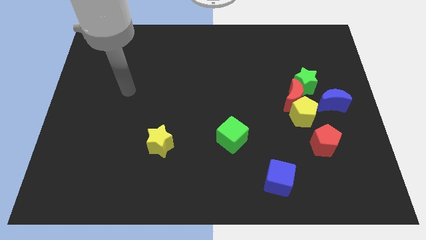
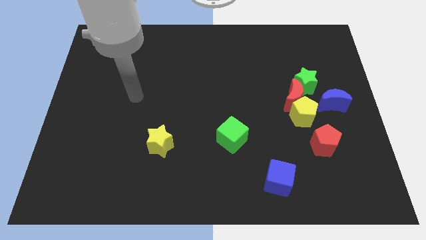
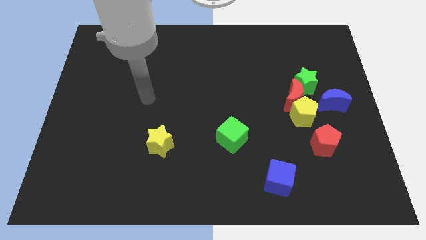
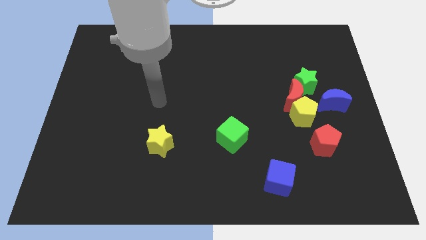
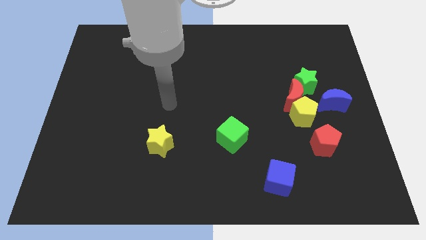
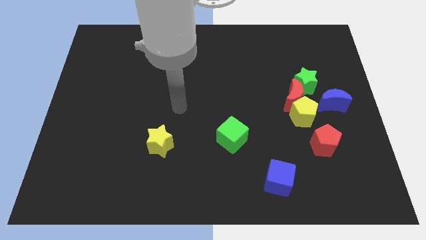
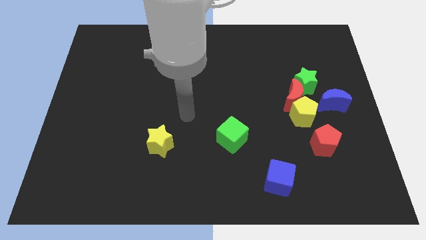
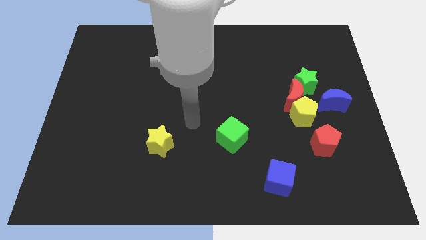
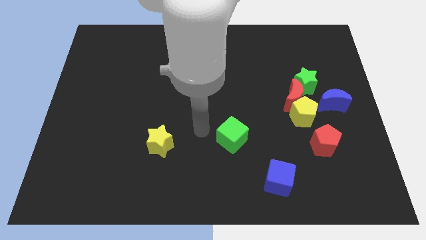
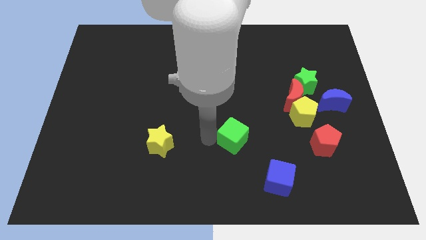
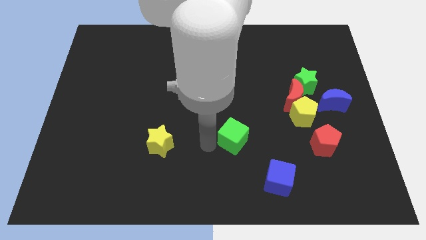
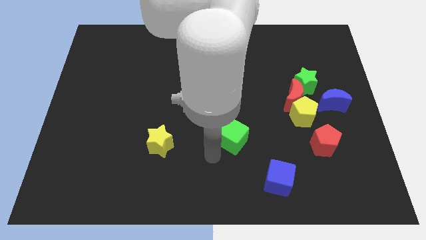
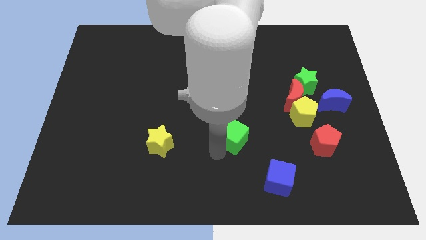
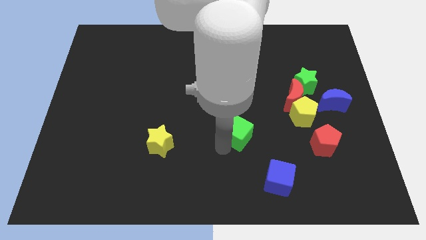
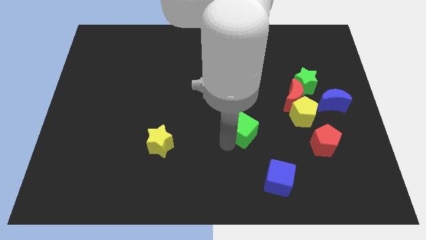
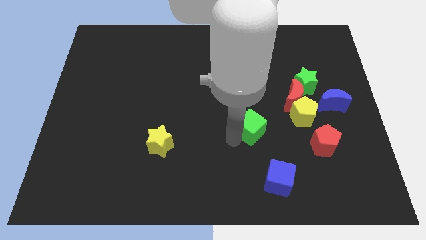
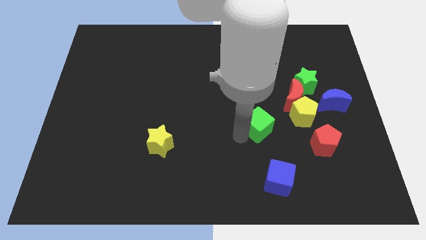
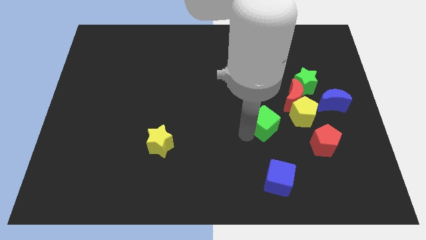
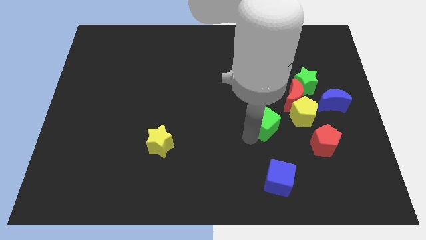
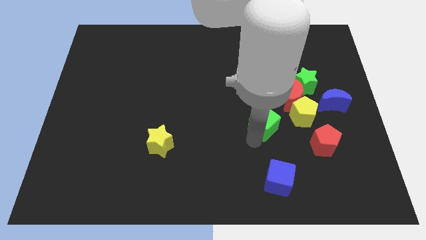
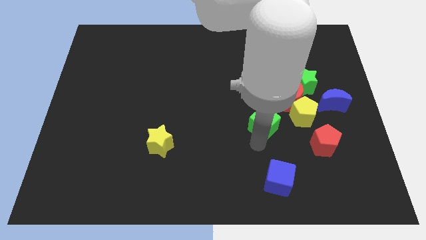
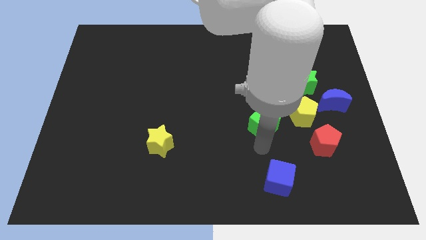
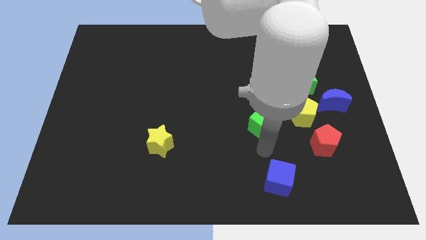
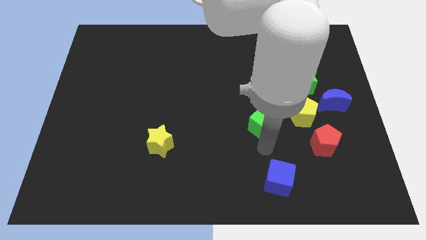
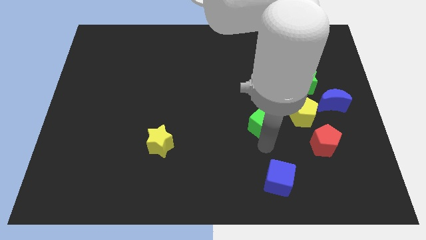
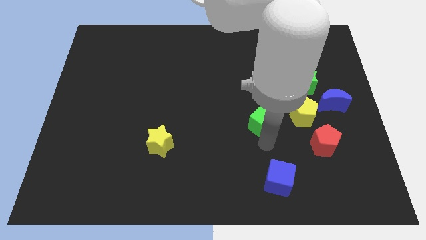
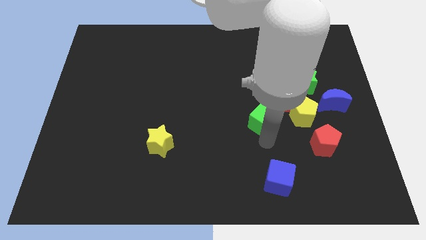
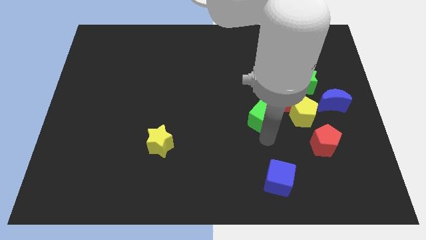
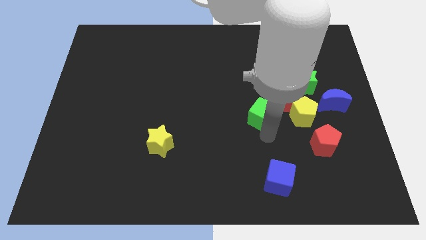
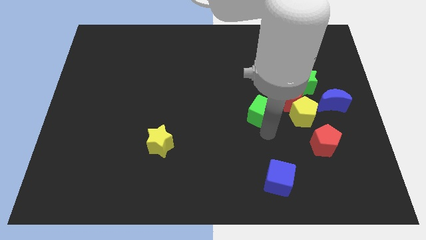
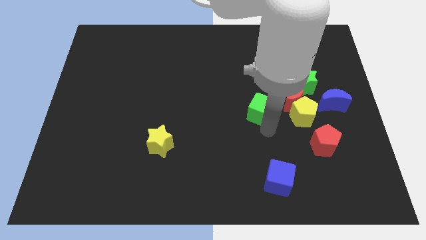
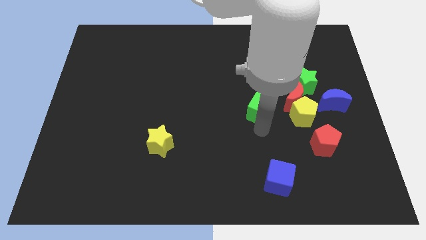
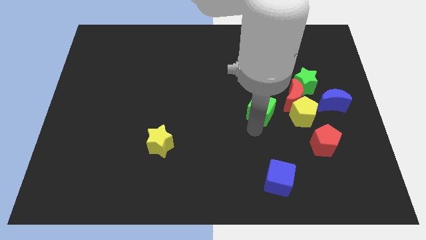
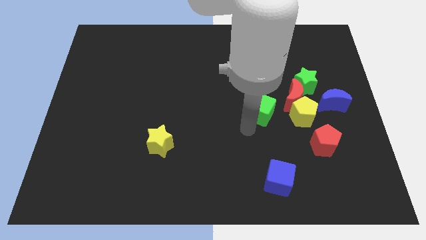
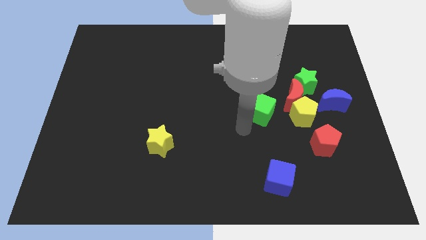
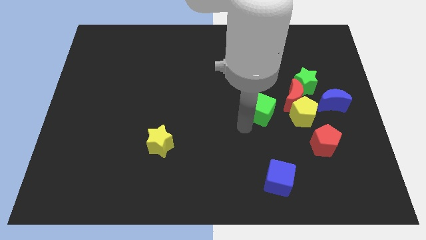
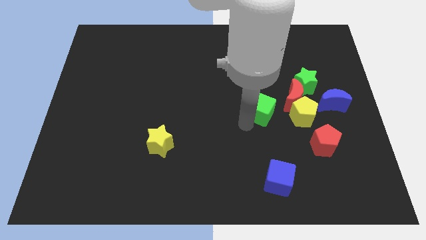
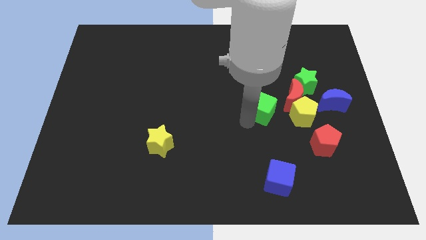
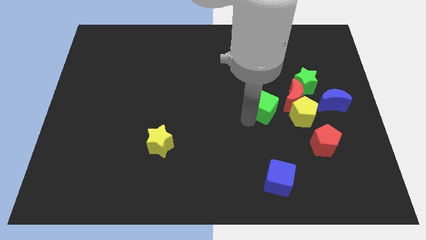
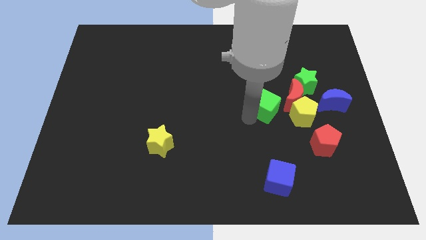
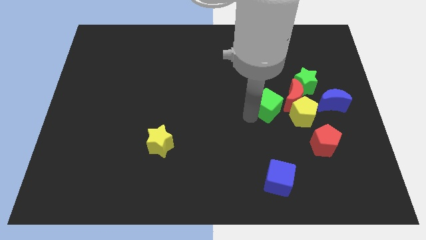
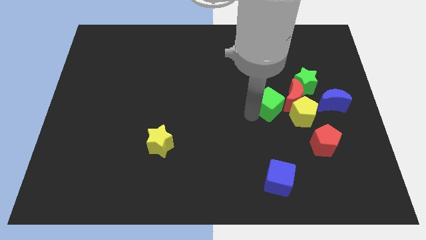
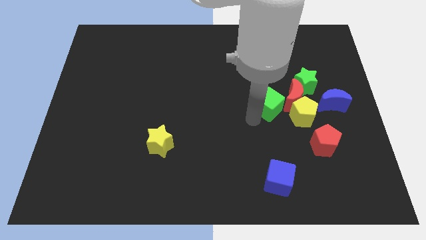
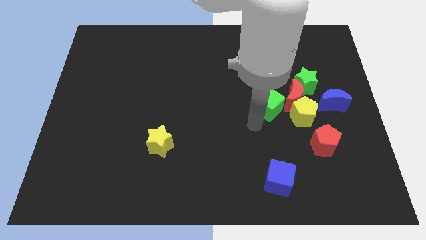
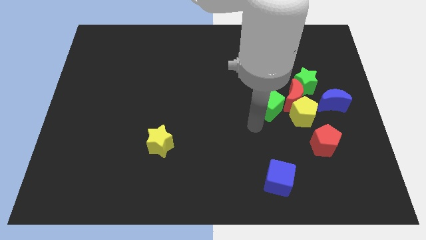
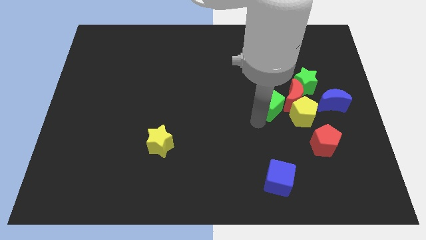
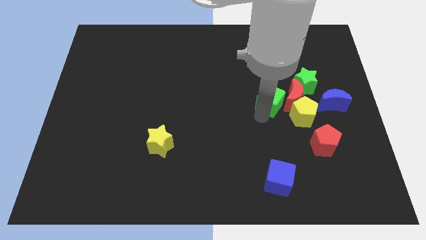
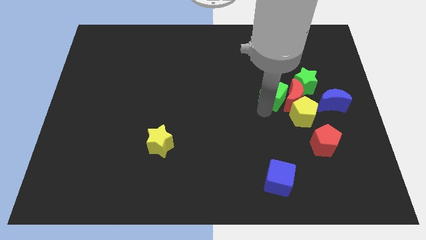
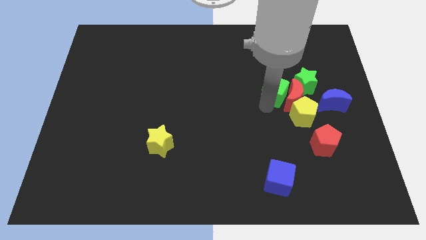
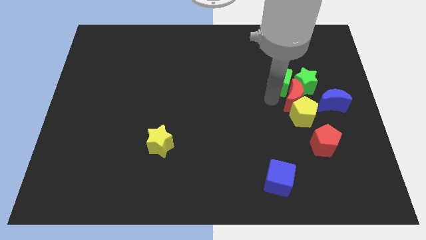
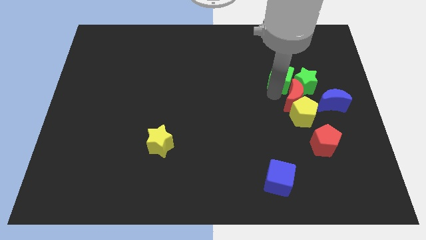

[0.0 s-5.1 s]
move the green cube up and to the right diagonally

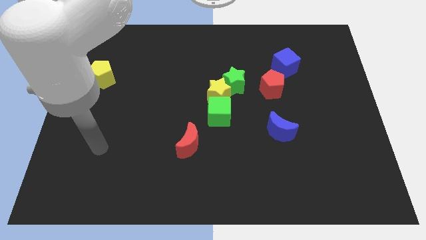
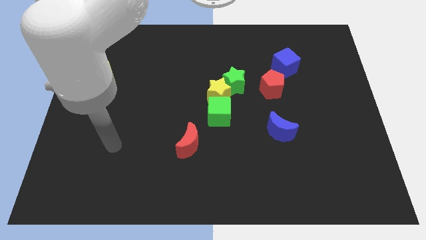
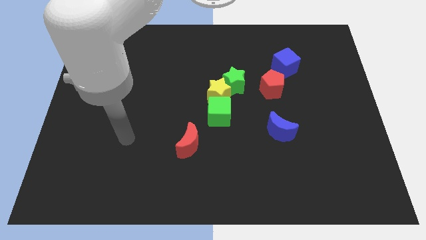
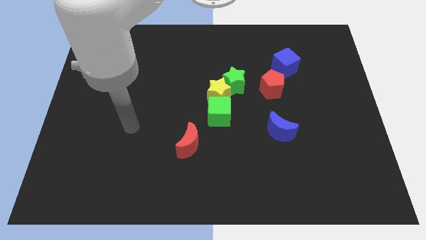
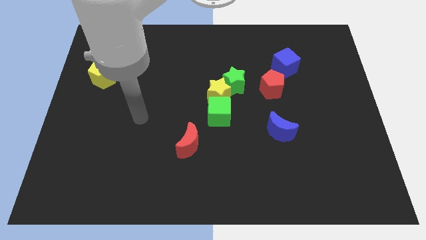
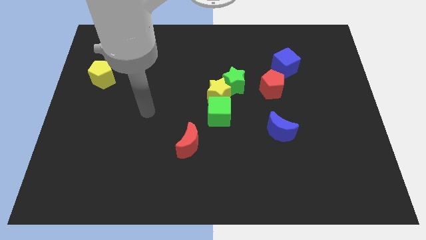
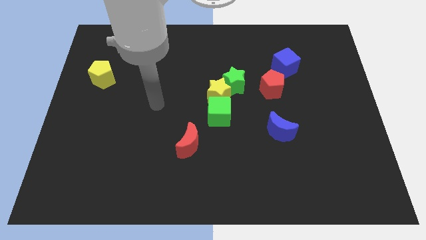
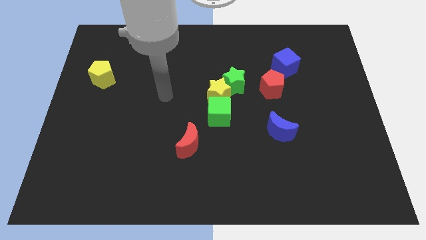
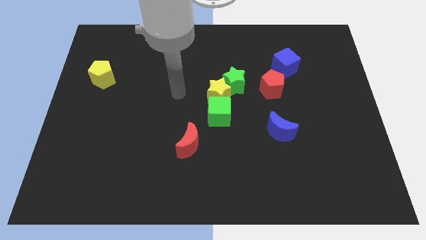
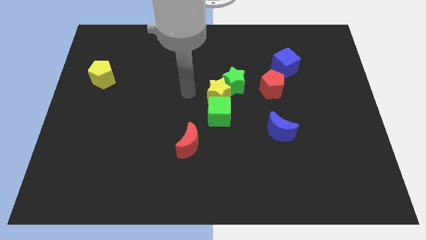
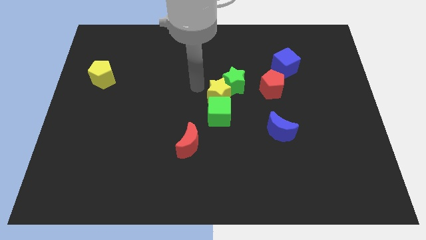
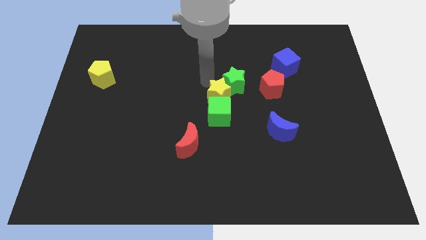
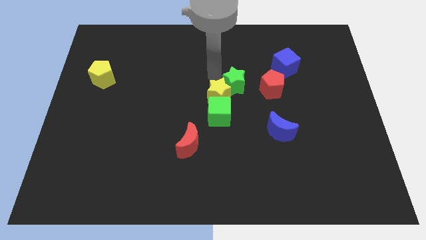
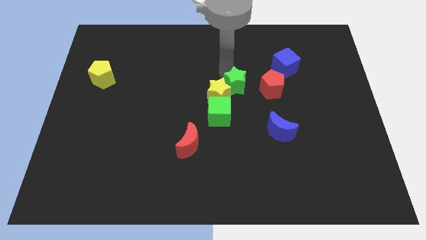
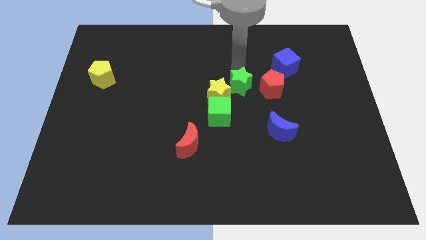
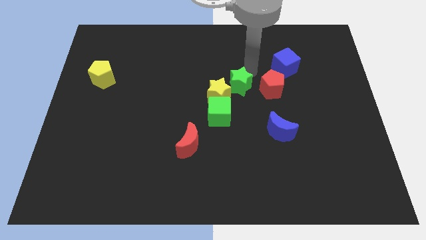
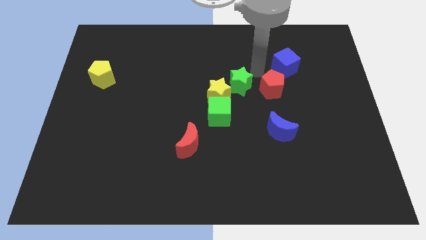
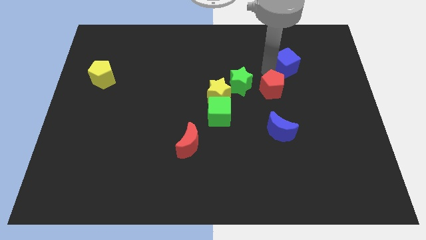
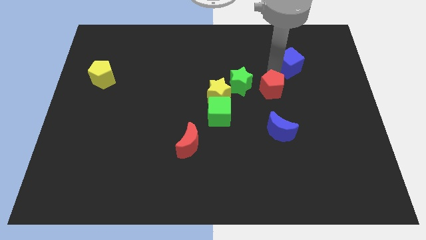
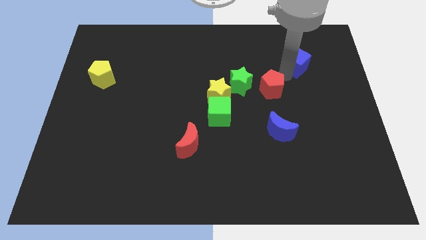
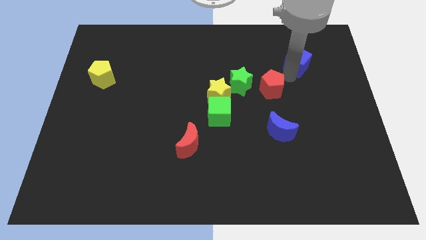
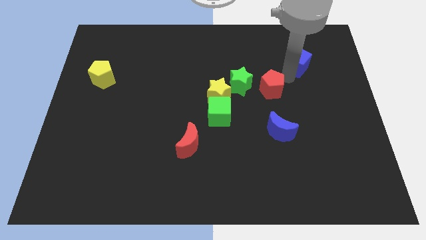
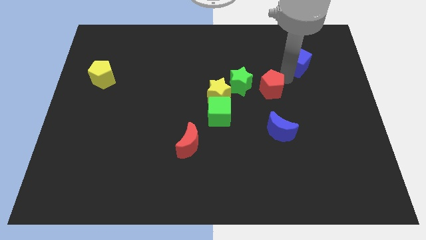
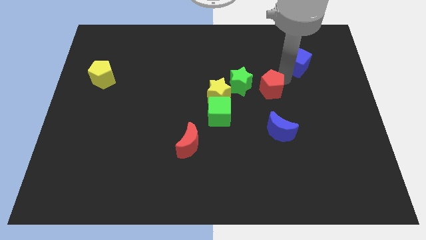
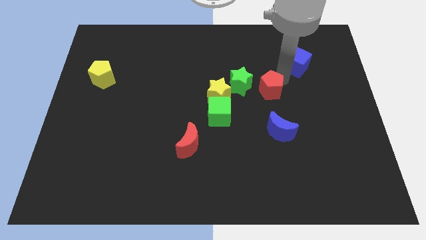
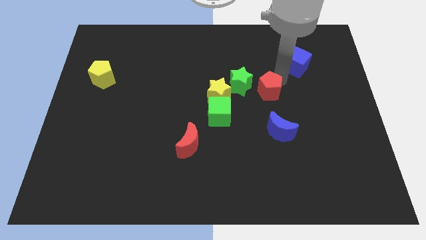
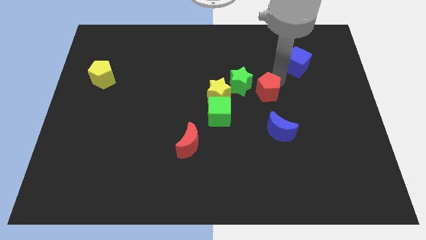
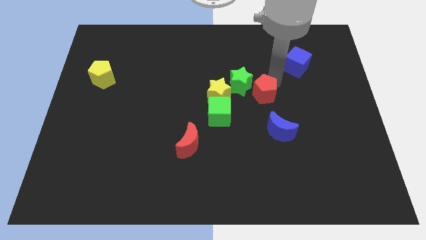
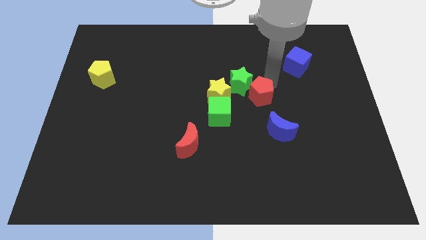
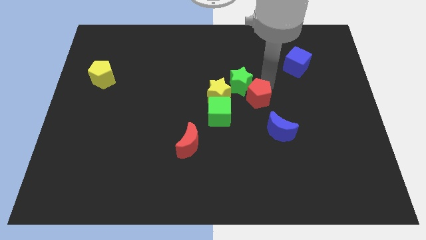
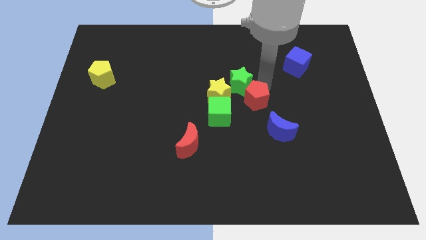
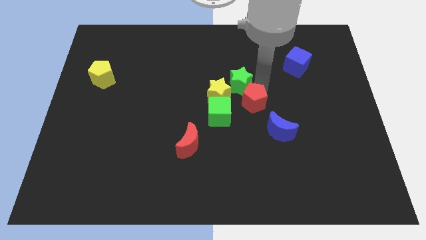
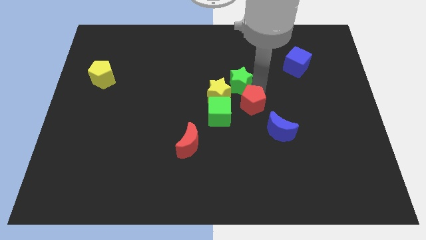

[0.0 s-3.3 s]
slide the red pentagon down and then to the left slightly
